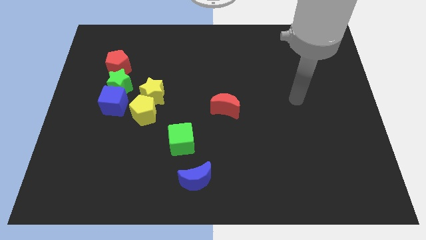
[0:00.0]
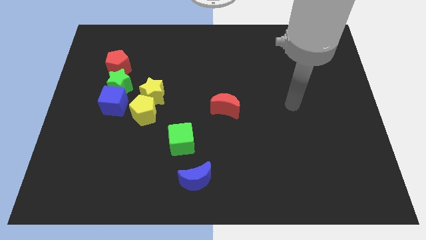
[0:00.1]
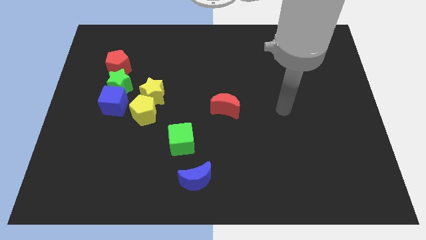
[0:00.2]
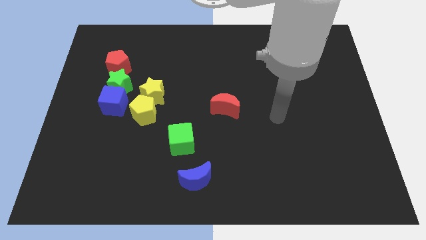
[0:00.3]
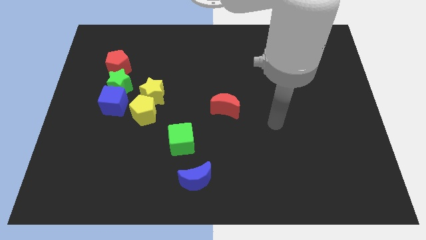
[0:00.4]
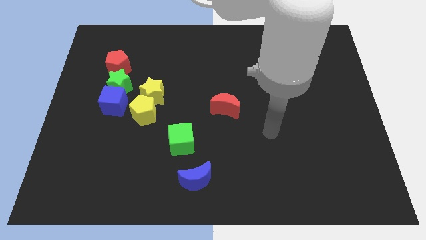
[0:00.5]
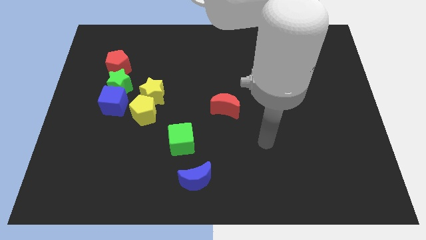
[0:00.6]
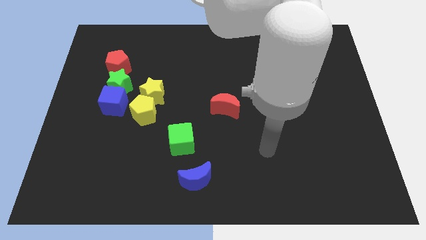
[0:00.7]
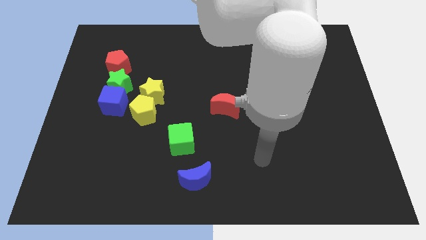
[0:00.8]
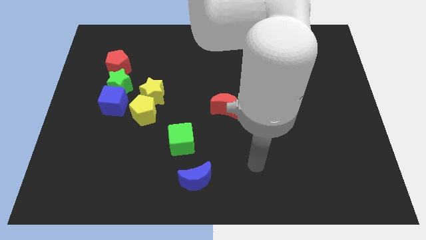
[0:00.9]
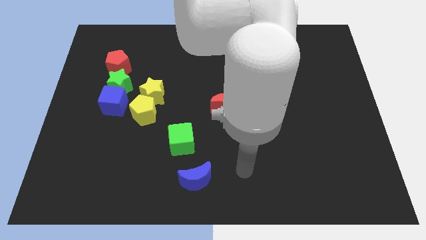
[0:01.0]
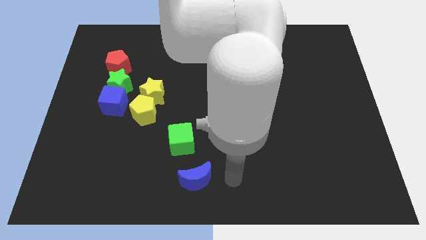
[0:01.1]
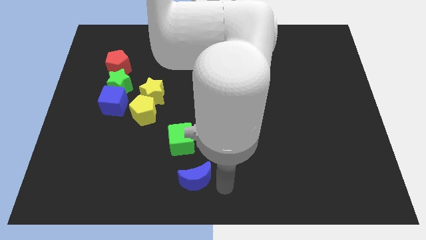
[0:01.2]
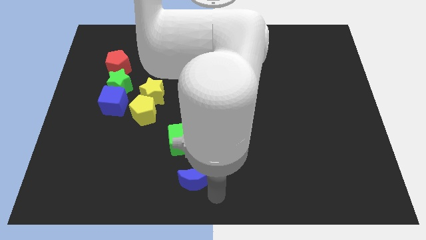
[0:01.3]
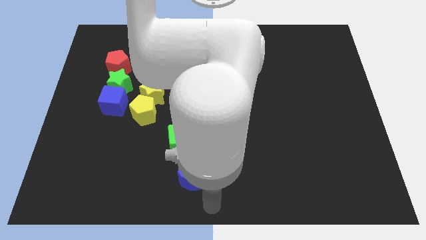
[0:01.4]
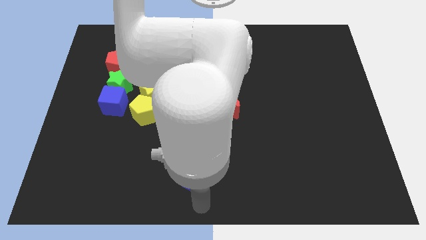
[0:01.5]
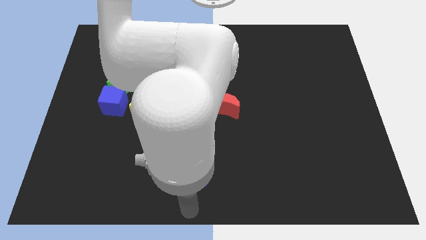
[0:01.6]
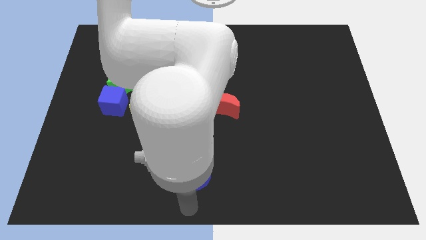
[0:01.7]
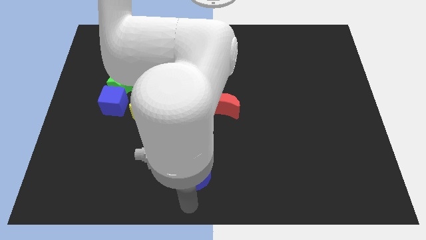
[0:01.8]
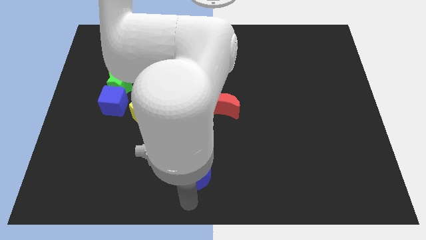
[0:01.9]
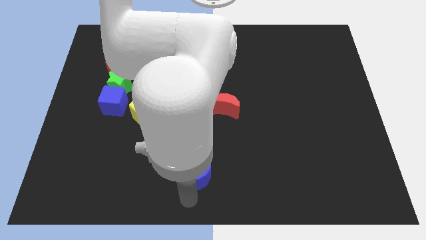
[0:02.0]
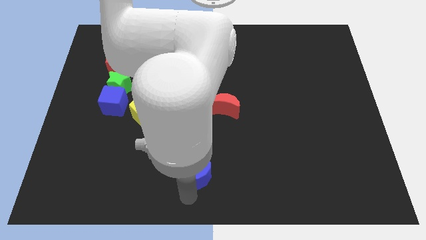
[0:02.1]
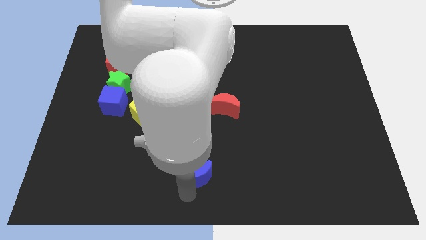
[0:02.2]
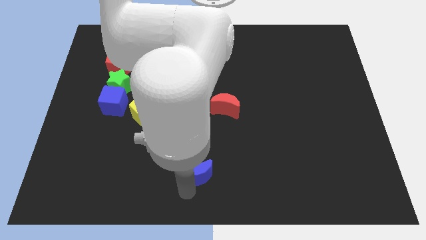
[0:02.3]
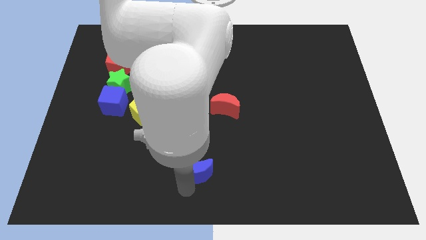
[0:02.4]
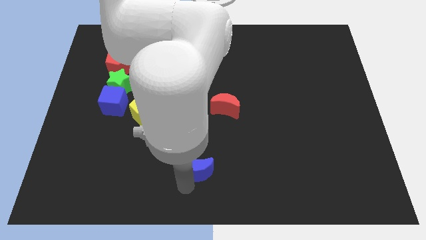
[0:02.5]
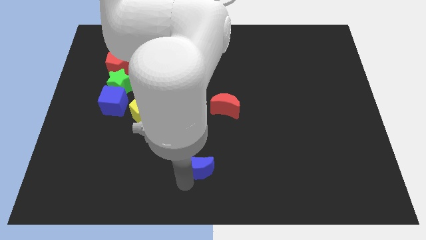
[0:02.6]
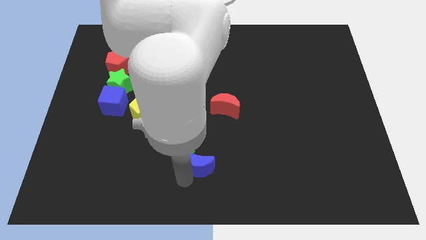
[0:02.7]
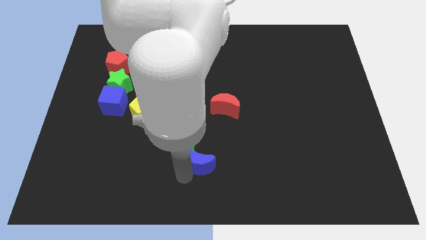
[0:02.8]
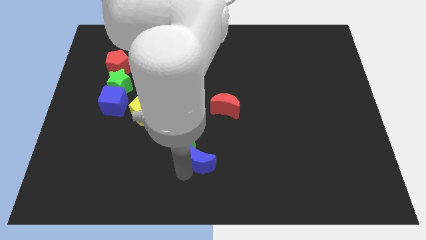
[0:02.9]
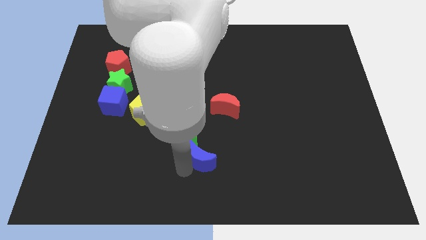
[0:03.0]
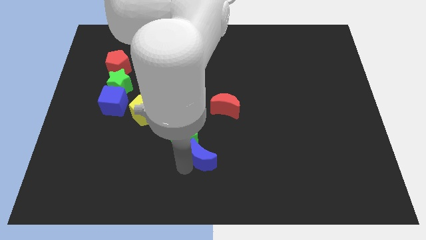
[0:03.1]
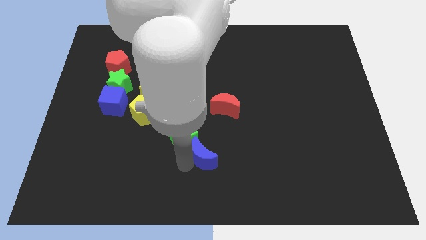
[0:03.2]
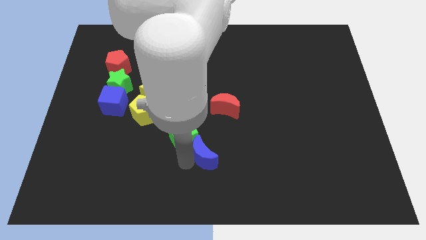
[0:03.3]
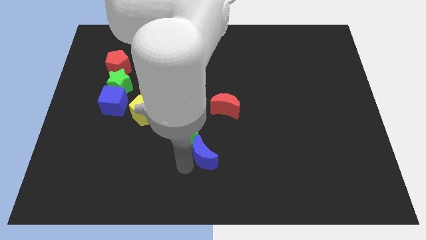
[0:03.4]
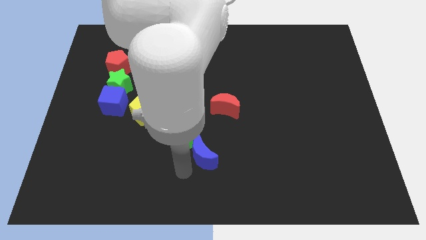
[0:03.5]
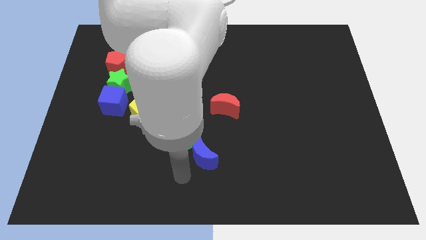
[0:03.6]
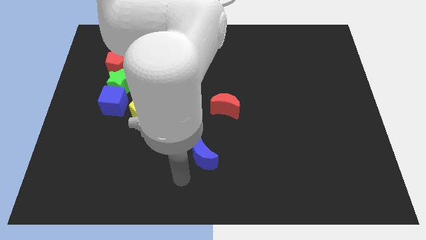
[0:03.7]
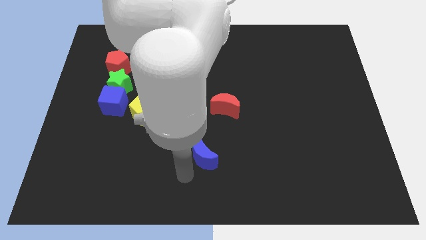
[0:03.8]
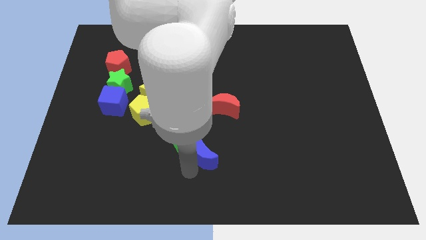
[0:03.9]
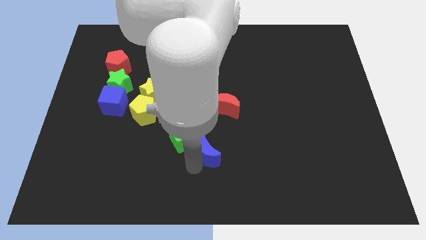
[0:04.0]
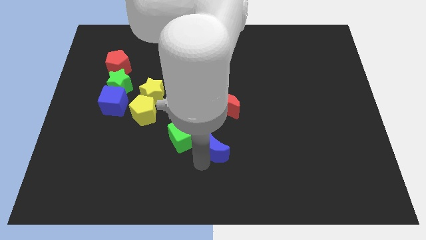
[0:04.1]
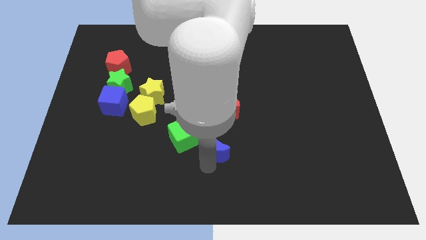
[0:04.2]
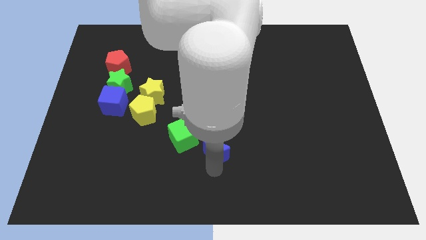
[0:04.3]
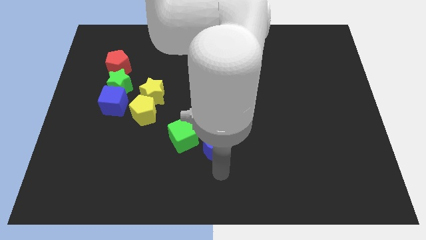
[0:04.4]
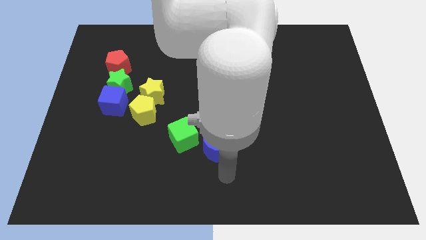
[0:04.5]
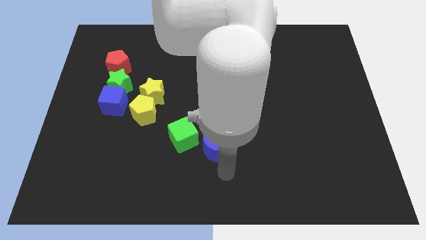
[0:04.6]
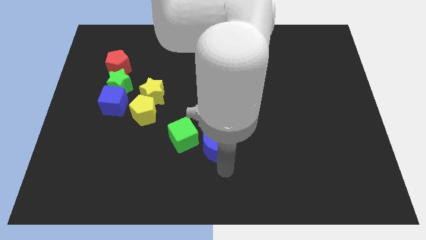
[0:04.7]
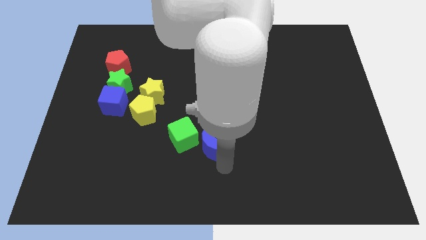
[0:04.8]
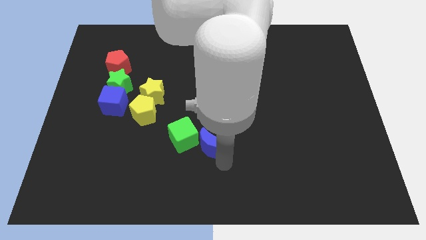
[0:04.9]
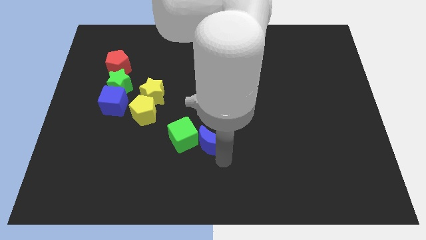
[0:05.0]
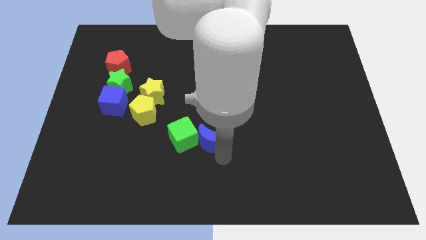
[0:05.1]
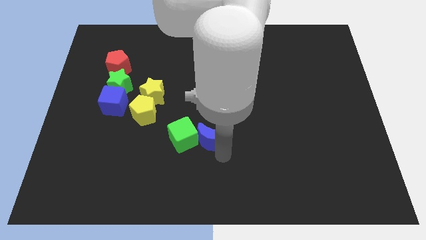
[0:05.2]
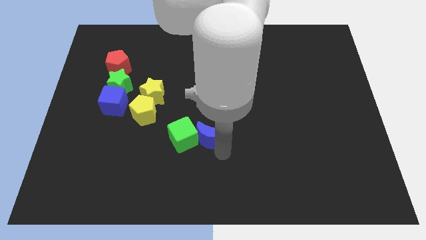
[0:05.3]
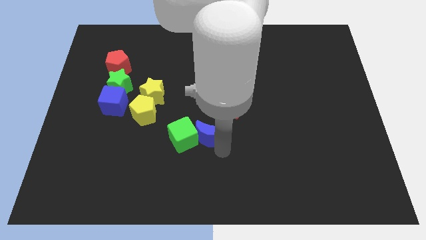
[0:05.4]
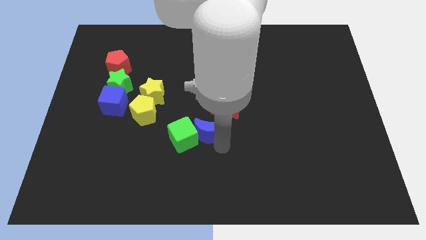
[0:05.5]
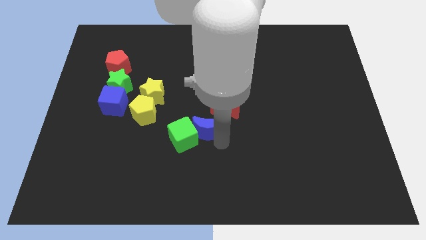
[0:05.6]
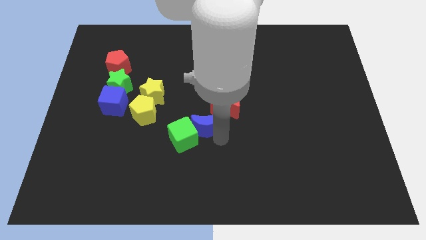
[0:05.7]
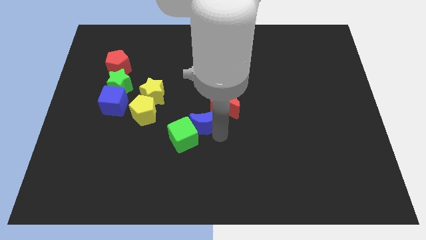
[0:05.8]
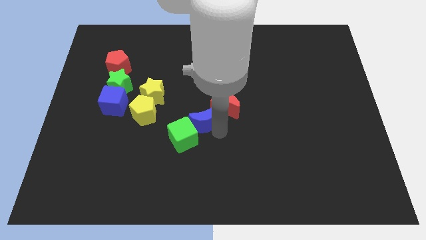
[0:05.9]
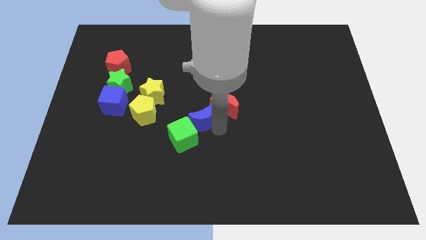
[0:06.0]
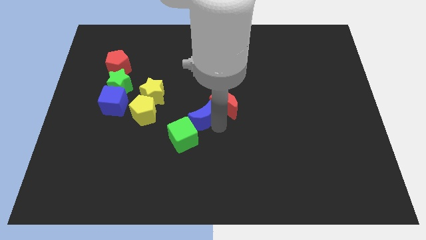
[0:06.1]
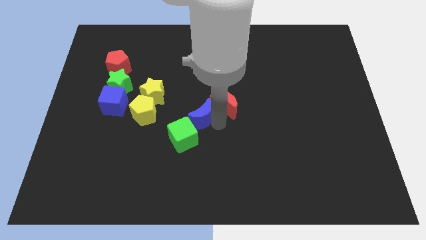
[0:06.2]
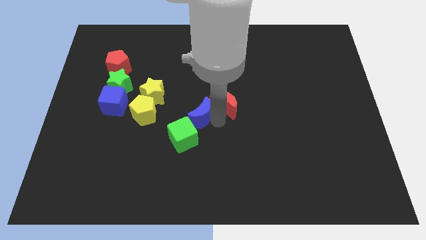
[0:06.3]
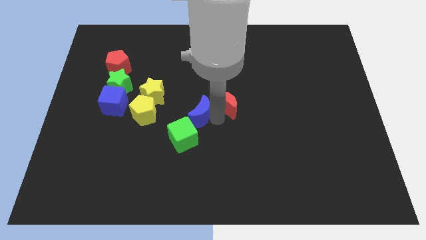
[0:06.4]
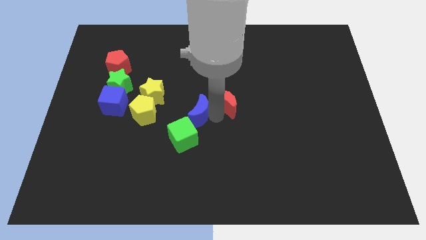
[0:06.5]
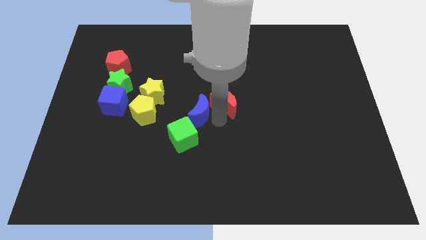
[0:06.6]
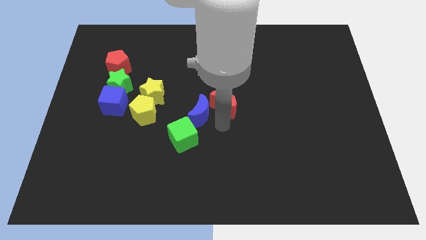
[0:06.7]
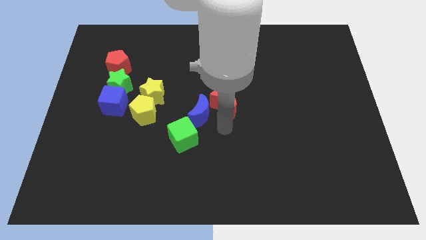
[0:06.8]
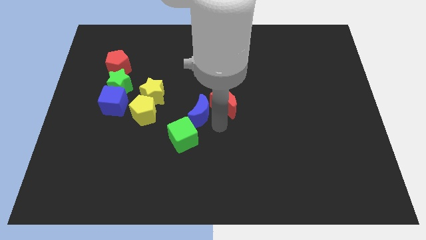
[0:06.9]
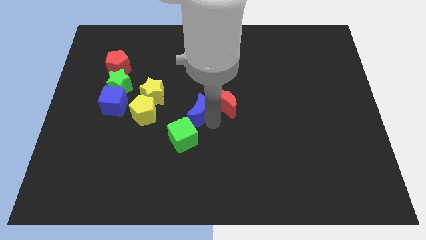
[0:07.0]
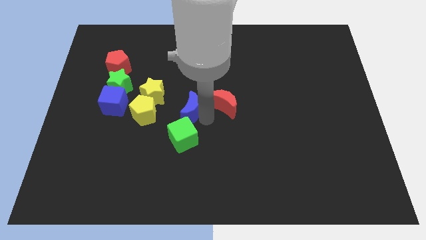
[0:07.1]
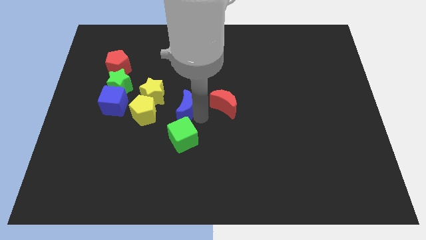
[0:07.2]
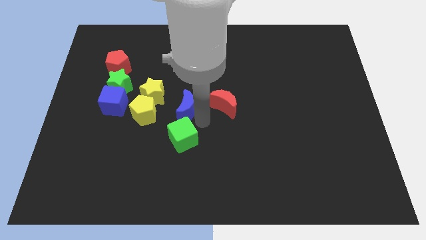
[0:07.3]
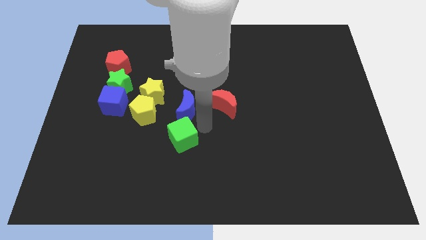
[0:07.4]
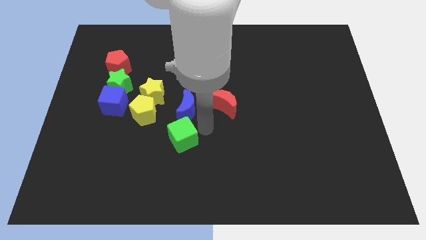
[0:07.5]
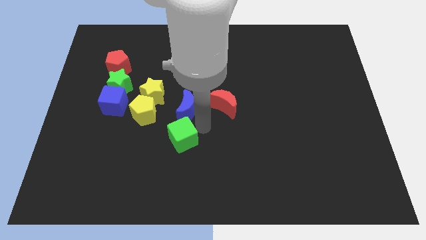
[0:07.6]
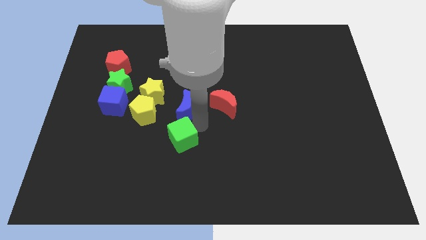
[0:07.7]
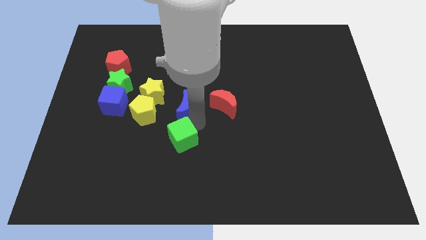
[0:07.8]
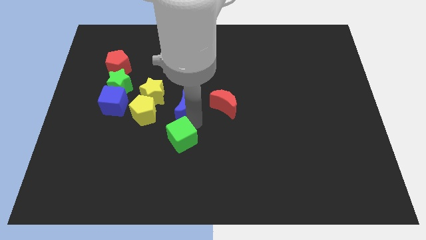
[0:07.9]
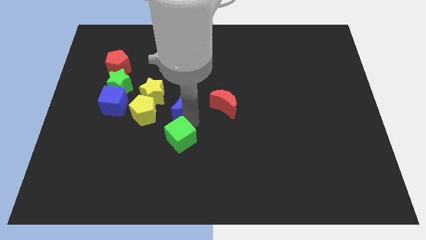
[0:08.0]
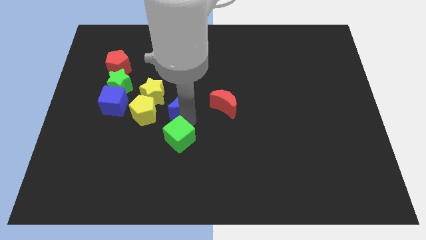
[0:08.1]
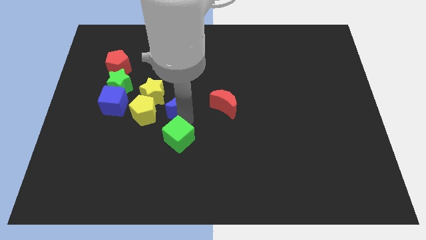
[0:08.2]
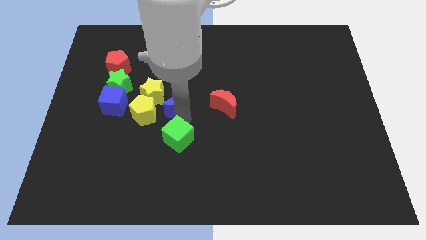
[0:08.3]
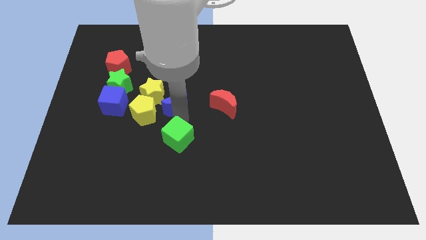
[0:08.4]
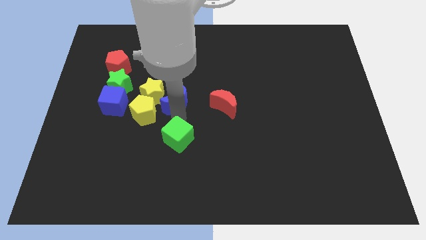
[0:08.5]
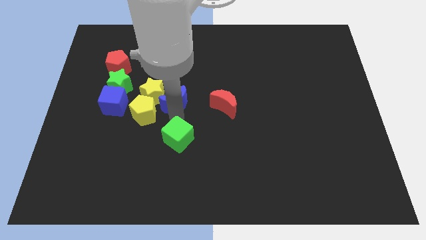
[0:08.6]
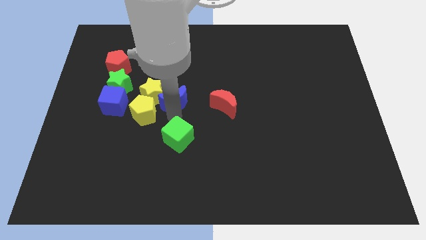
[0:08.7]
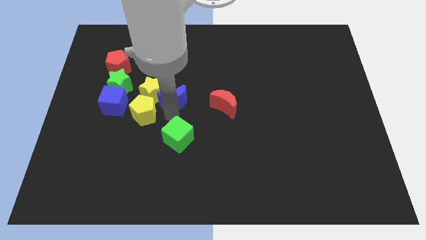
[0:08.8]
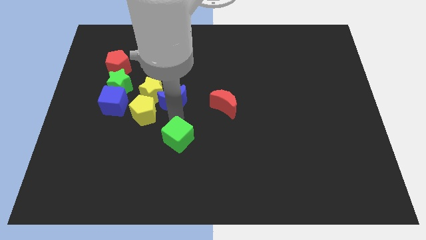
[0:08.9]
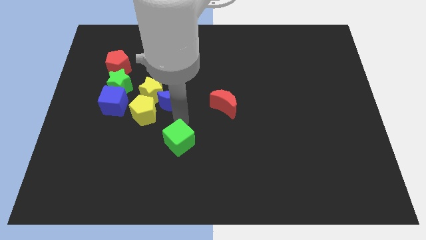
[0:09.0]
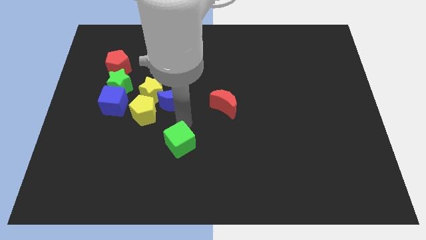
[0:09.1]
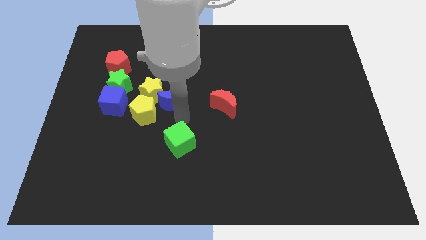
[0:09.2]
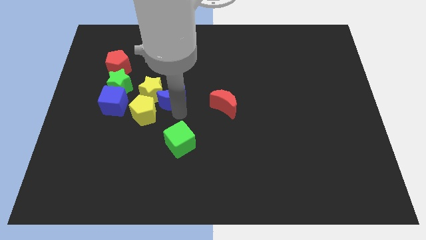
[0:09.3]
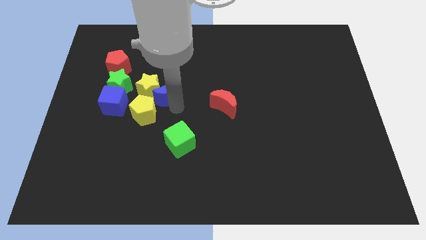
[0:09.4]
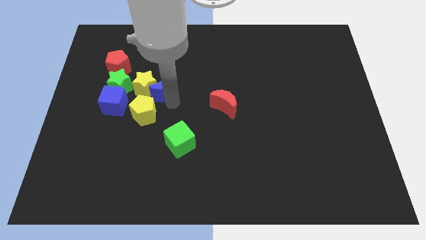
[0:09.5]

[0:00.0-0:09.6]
push the blue moon above the yellow pentagon
